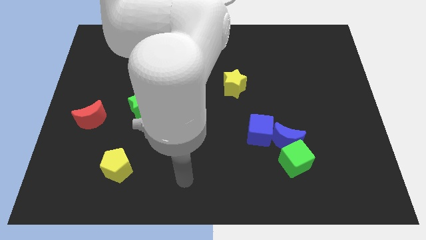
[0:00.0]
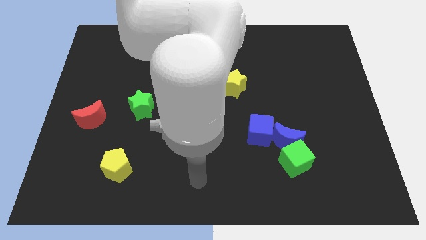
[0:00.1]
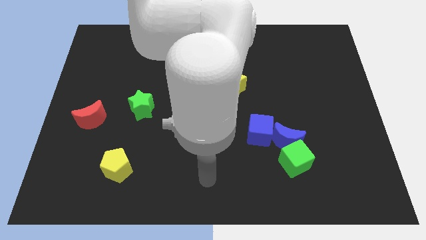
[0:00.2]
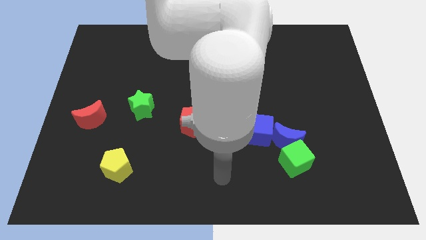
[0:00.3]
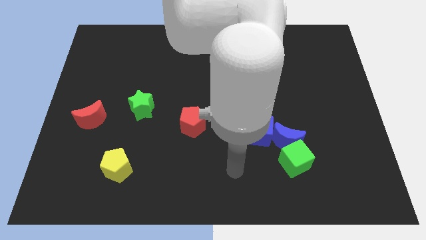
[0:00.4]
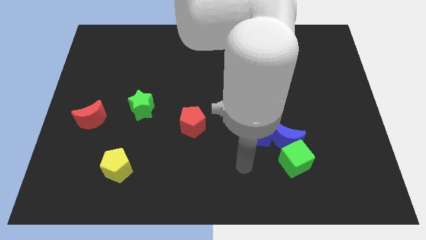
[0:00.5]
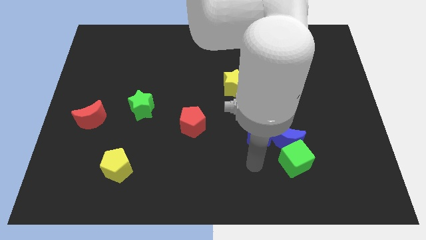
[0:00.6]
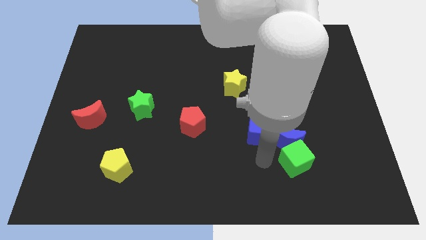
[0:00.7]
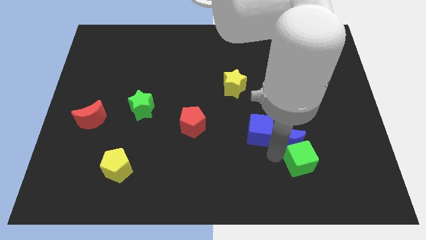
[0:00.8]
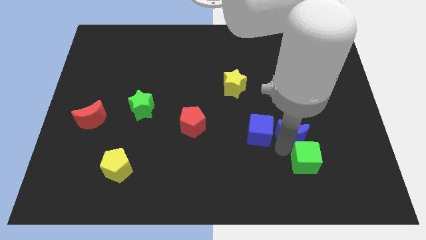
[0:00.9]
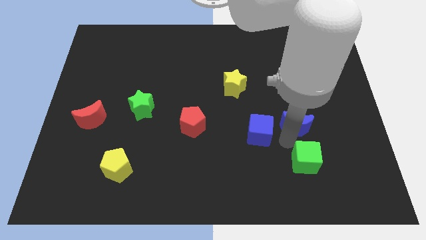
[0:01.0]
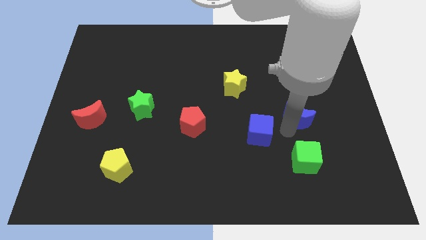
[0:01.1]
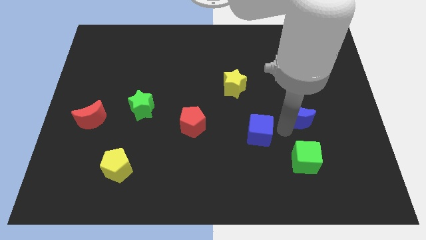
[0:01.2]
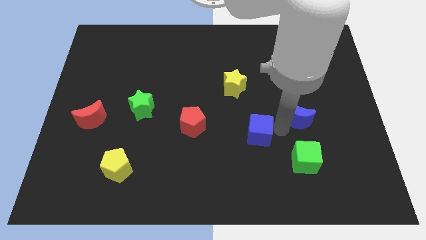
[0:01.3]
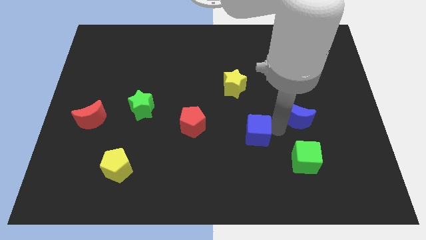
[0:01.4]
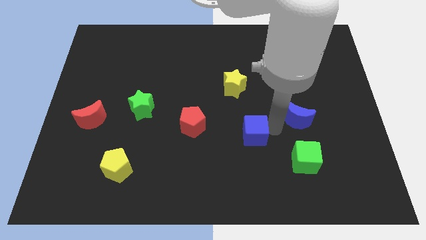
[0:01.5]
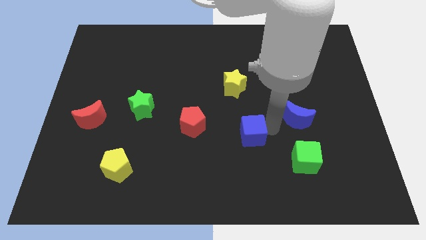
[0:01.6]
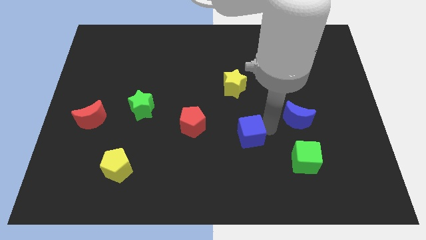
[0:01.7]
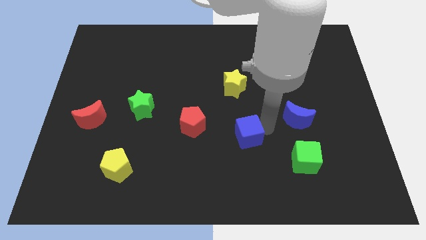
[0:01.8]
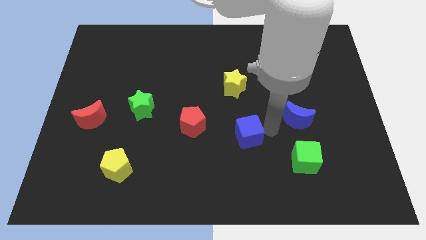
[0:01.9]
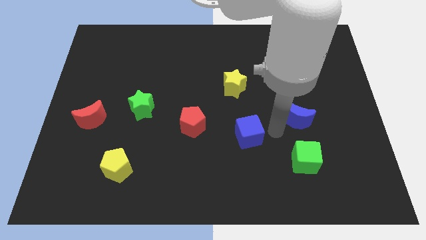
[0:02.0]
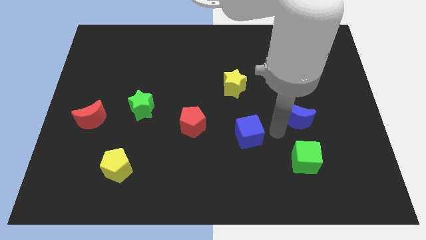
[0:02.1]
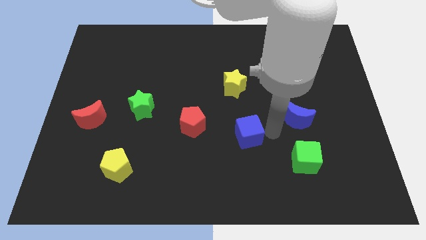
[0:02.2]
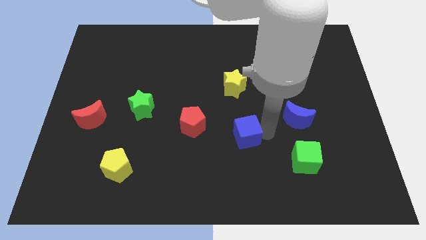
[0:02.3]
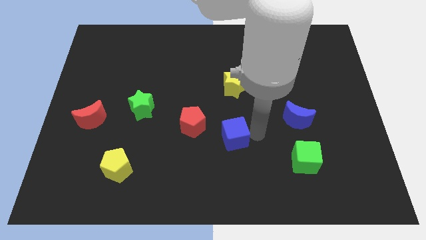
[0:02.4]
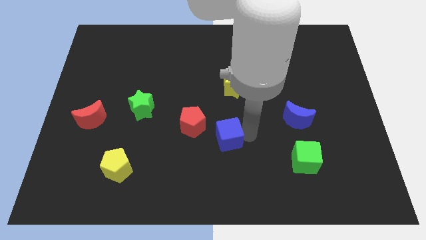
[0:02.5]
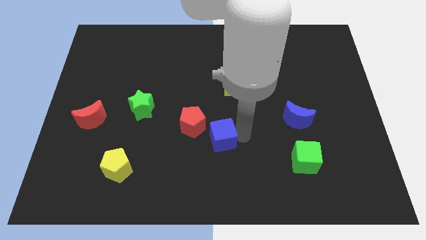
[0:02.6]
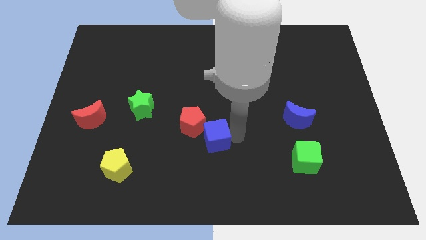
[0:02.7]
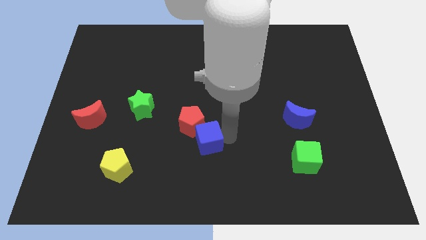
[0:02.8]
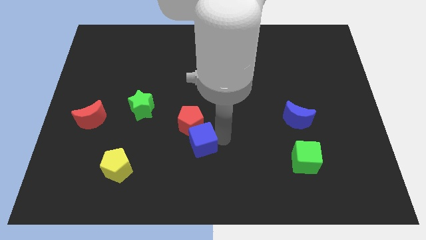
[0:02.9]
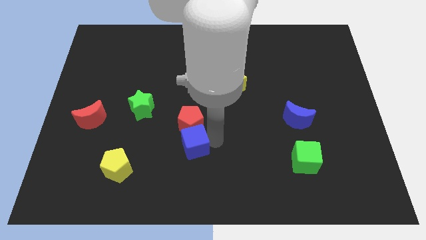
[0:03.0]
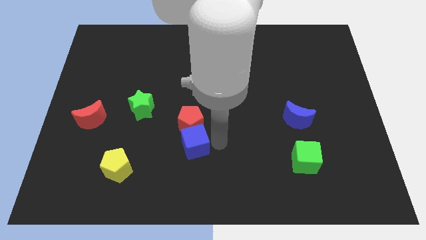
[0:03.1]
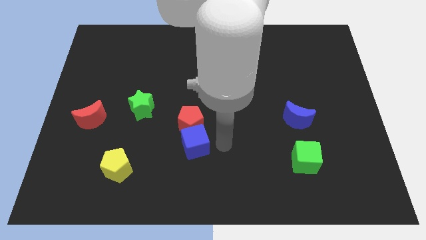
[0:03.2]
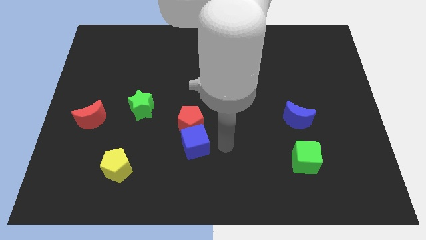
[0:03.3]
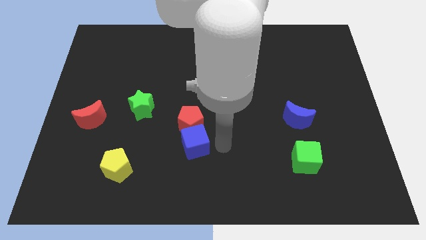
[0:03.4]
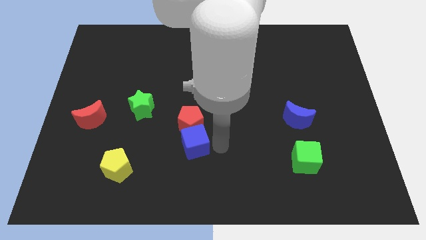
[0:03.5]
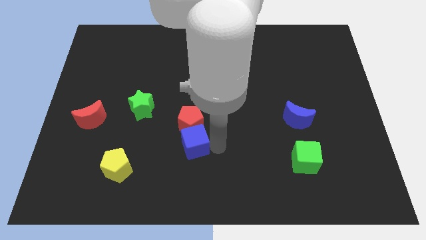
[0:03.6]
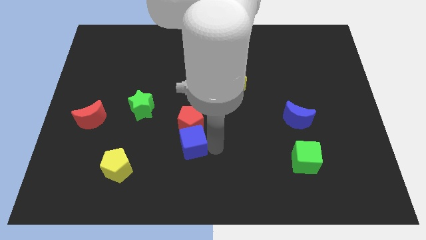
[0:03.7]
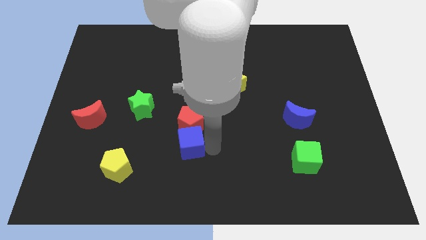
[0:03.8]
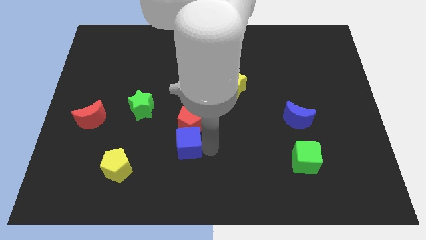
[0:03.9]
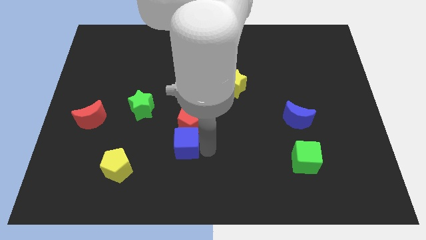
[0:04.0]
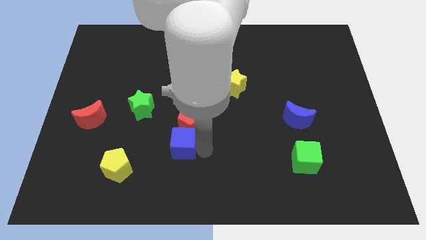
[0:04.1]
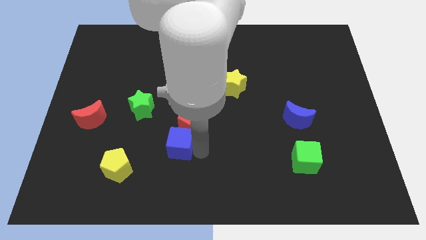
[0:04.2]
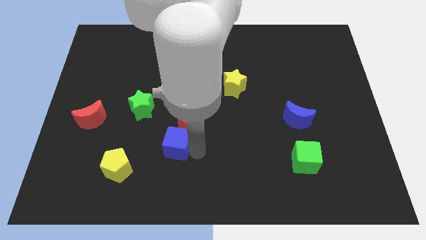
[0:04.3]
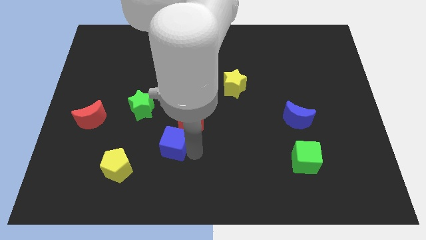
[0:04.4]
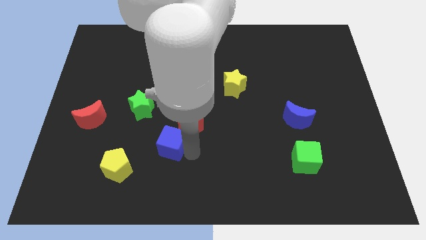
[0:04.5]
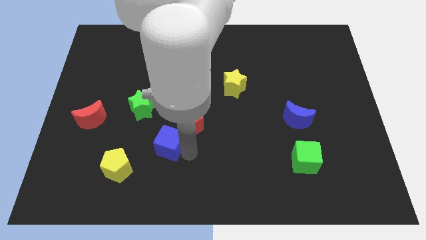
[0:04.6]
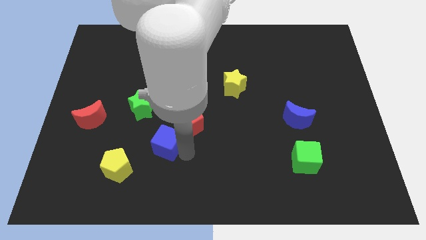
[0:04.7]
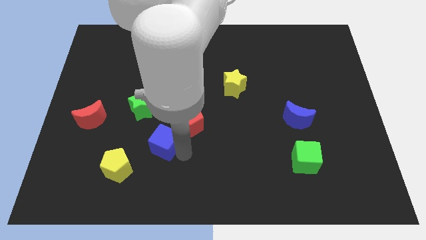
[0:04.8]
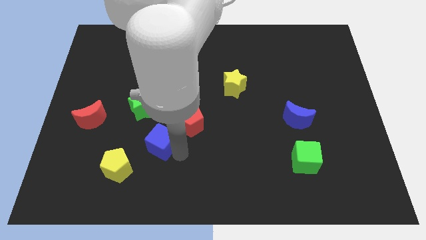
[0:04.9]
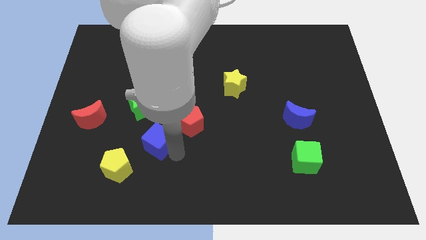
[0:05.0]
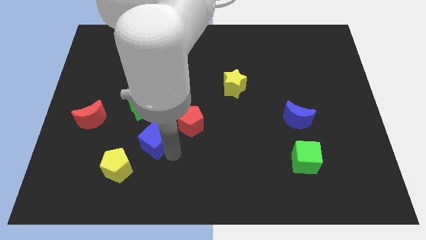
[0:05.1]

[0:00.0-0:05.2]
move the blue cube to the left of the red pentagon

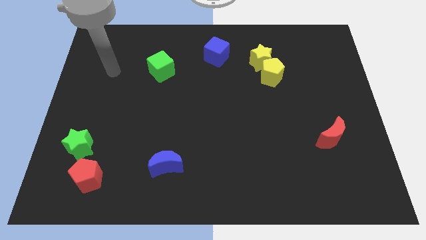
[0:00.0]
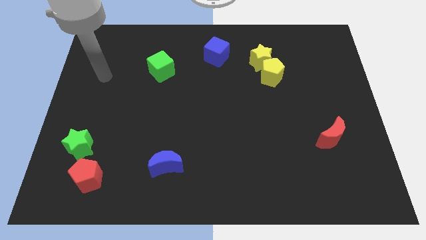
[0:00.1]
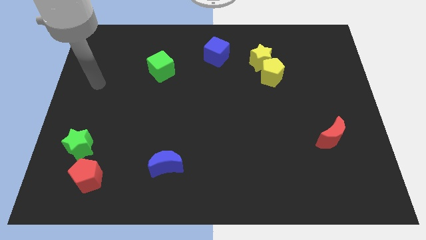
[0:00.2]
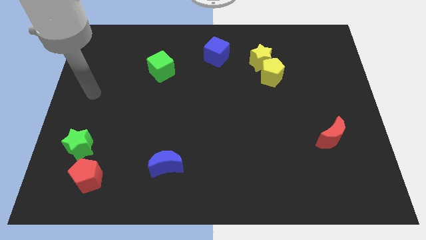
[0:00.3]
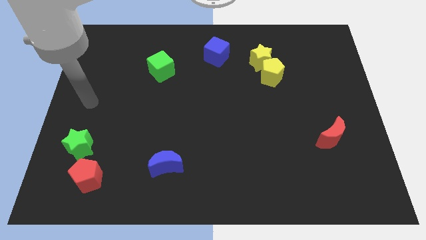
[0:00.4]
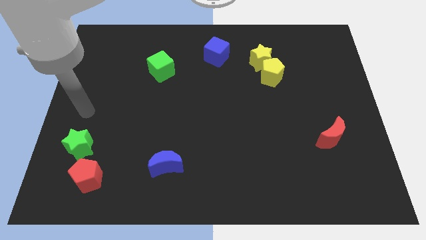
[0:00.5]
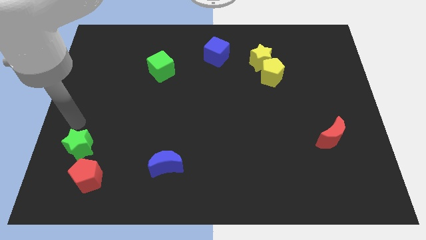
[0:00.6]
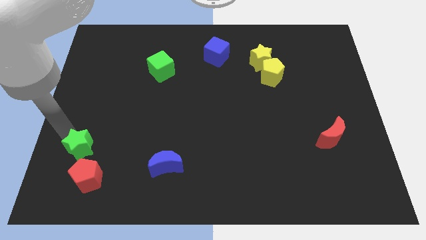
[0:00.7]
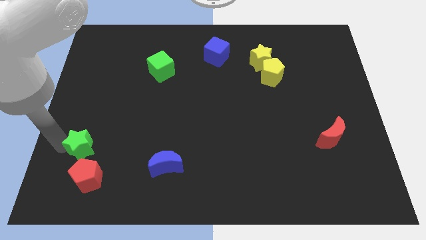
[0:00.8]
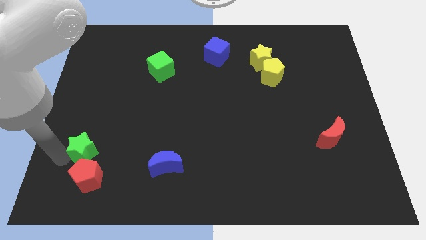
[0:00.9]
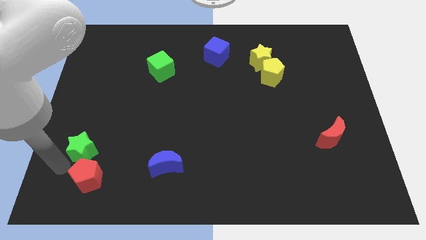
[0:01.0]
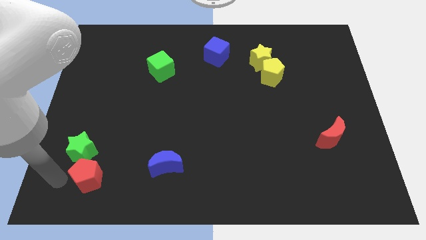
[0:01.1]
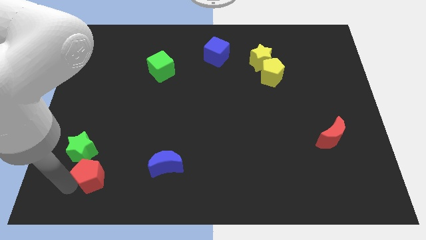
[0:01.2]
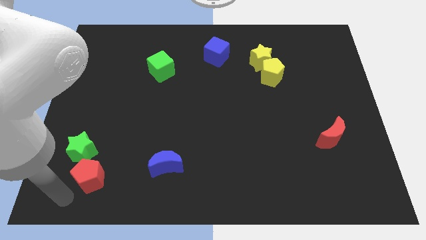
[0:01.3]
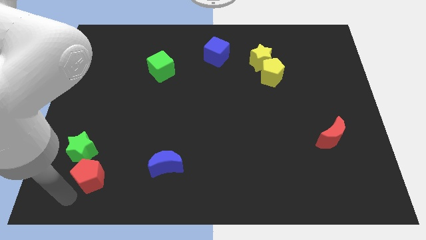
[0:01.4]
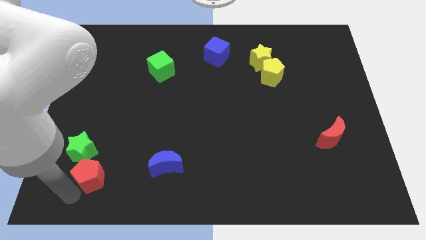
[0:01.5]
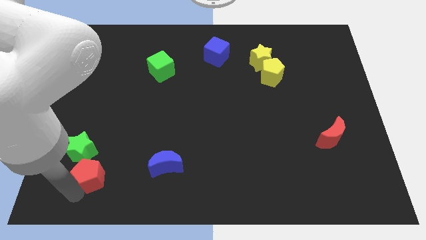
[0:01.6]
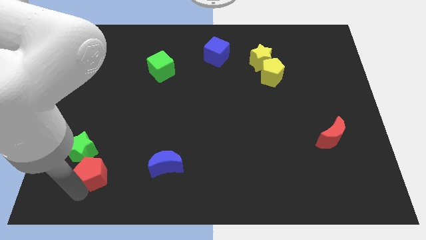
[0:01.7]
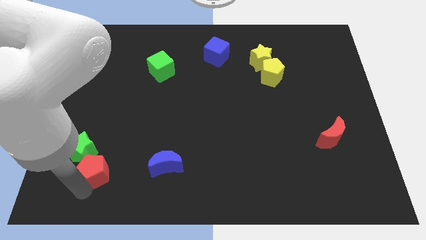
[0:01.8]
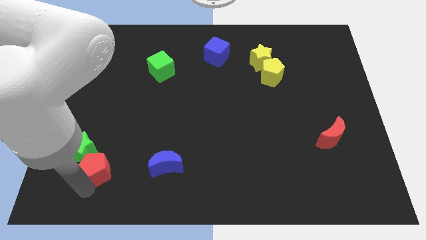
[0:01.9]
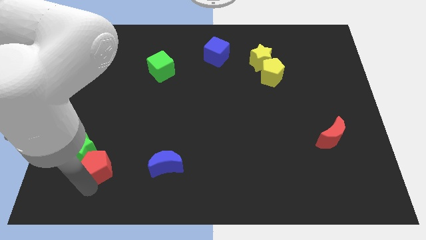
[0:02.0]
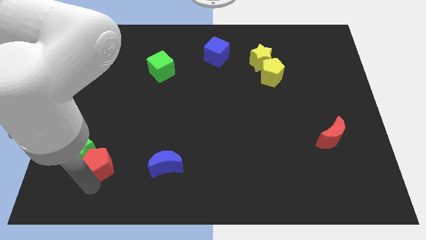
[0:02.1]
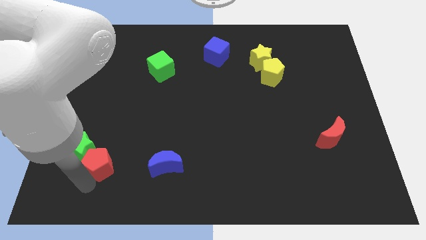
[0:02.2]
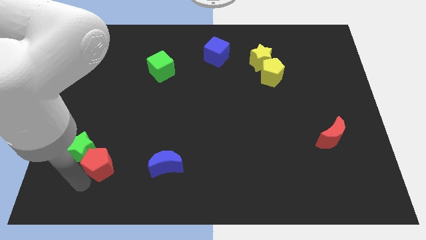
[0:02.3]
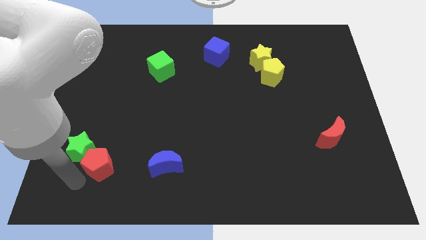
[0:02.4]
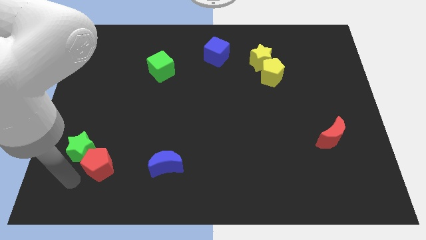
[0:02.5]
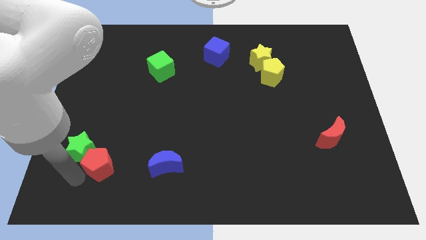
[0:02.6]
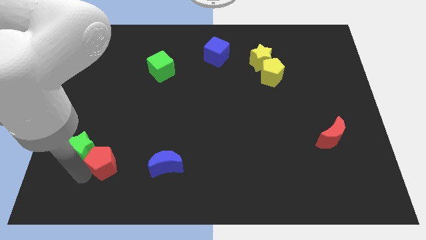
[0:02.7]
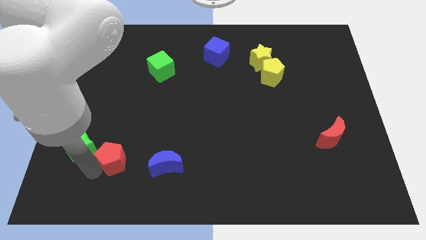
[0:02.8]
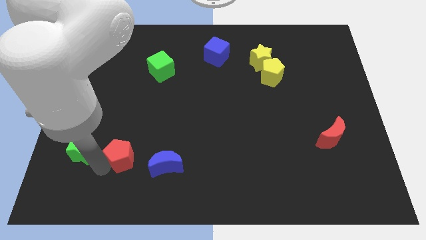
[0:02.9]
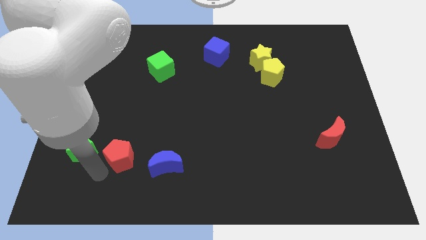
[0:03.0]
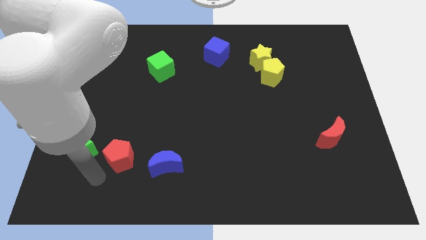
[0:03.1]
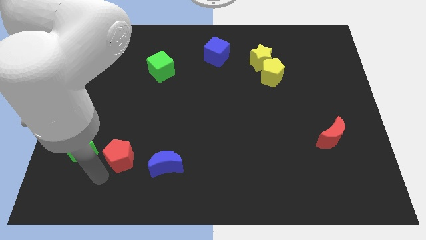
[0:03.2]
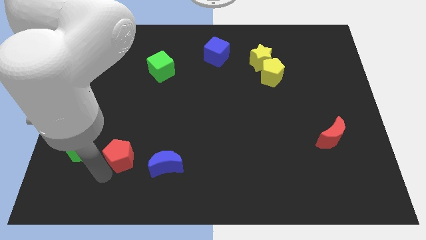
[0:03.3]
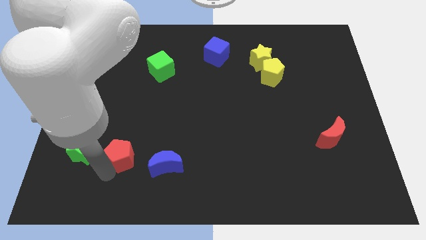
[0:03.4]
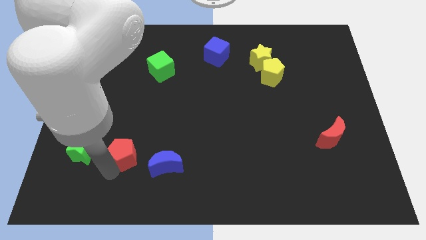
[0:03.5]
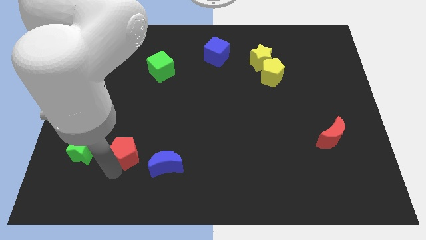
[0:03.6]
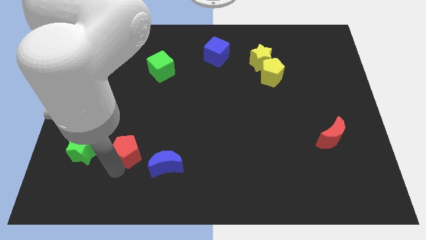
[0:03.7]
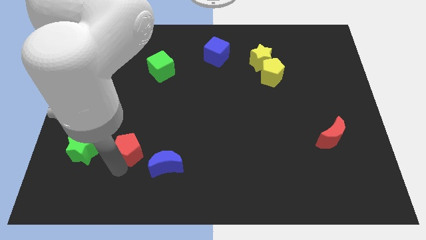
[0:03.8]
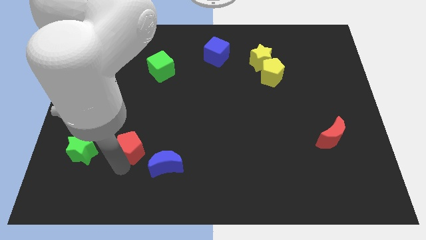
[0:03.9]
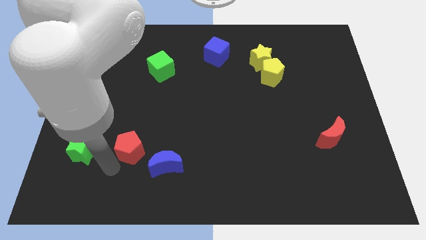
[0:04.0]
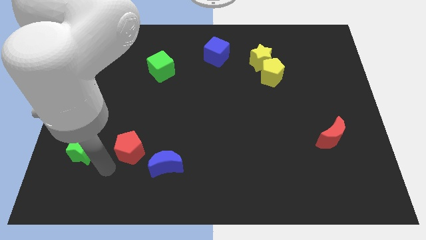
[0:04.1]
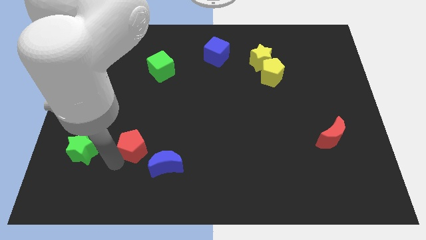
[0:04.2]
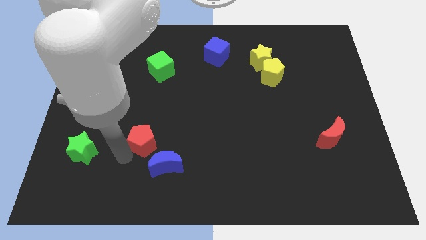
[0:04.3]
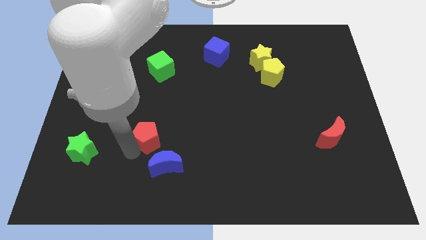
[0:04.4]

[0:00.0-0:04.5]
slide the red pentagon to the top side of the blue moon
